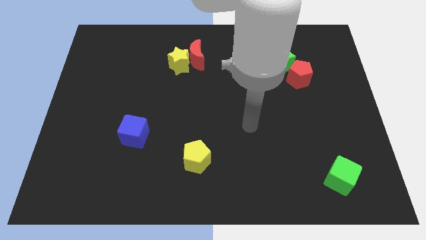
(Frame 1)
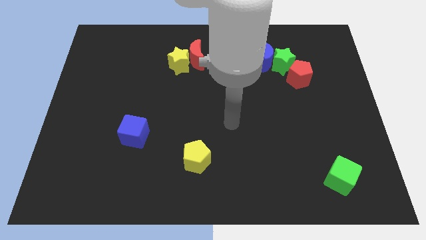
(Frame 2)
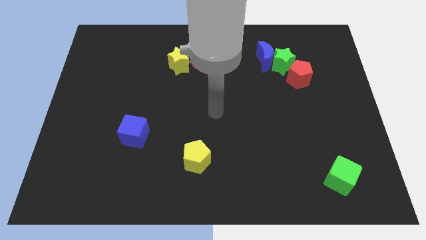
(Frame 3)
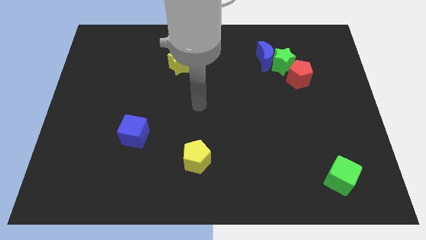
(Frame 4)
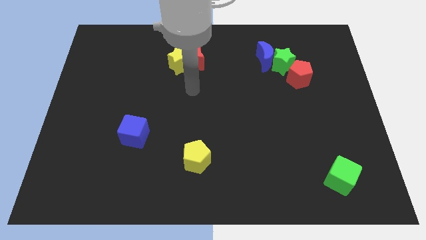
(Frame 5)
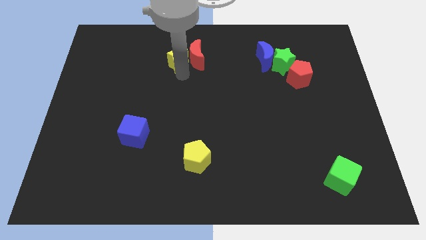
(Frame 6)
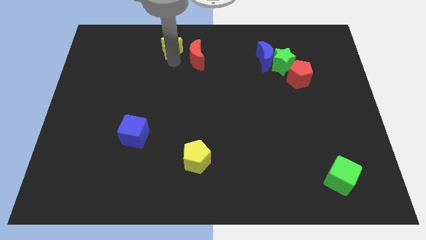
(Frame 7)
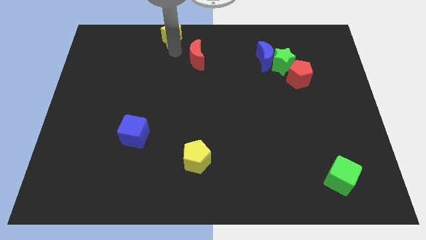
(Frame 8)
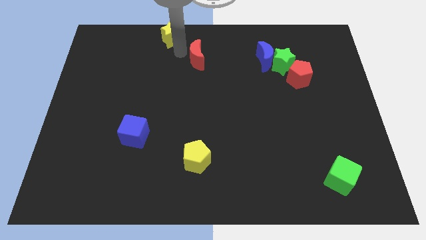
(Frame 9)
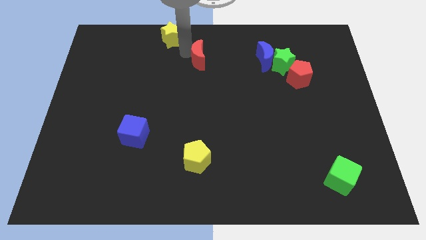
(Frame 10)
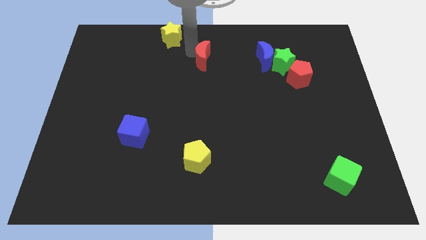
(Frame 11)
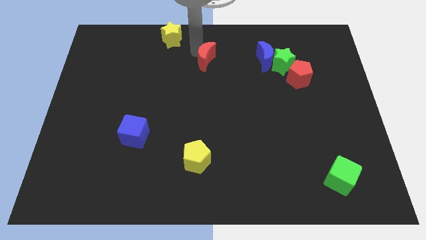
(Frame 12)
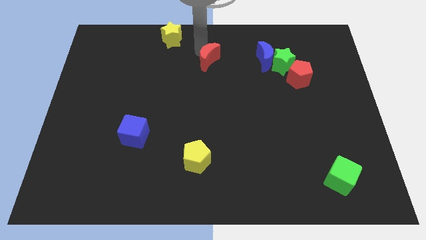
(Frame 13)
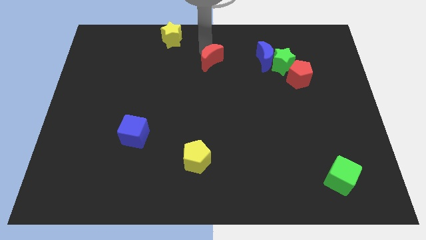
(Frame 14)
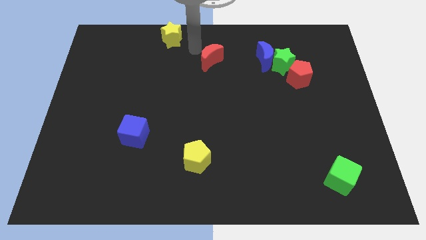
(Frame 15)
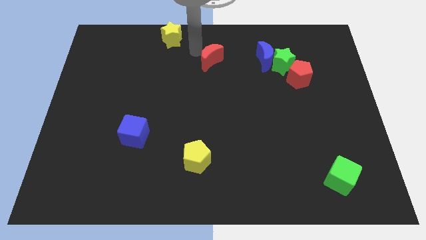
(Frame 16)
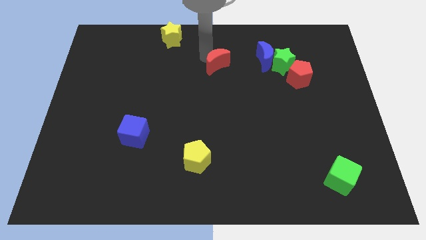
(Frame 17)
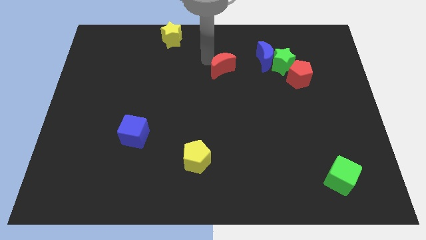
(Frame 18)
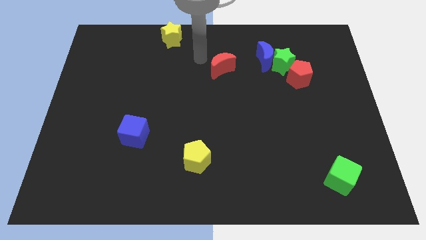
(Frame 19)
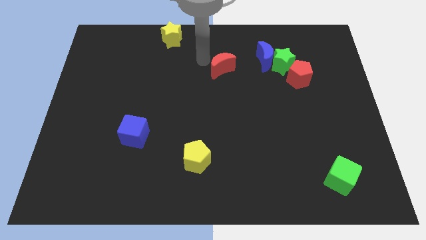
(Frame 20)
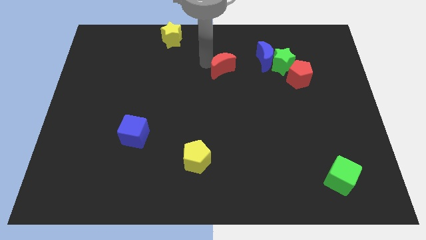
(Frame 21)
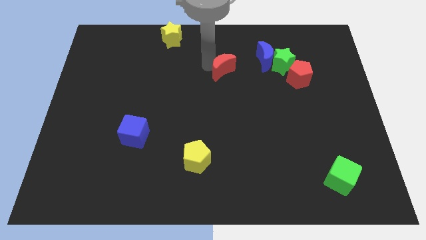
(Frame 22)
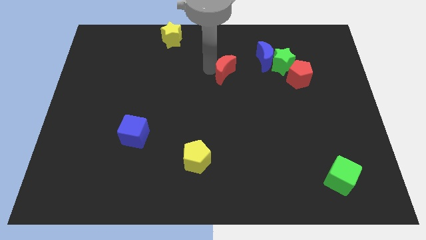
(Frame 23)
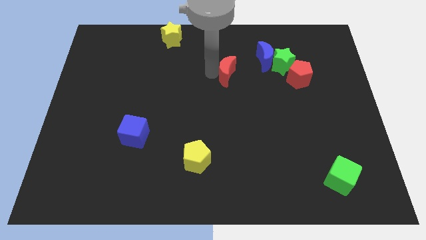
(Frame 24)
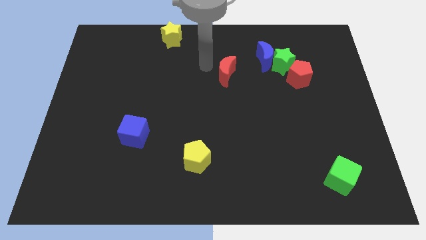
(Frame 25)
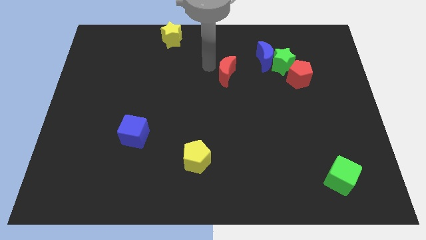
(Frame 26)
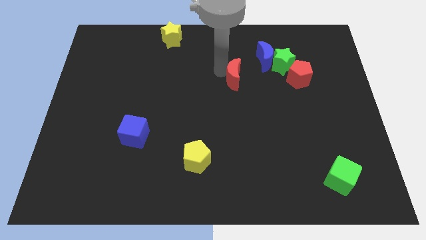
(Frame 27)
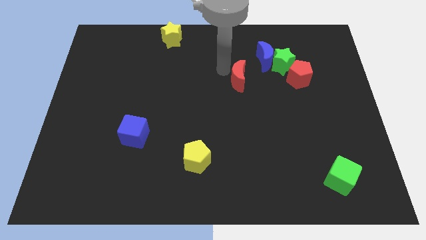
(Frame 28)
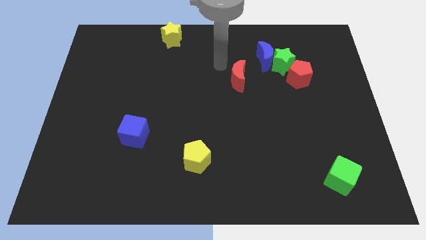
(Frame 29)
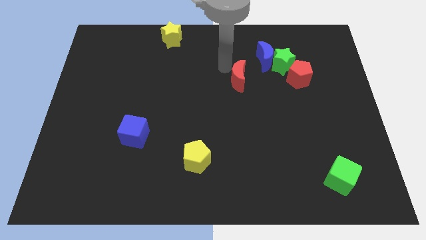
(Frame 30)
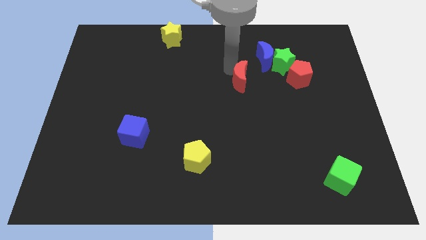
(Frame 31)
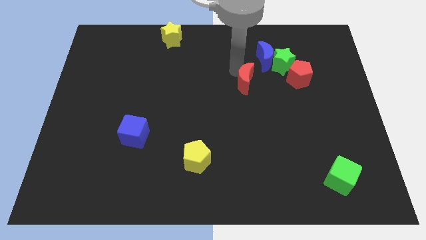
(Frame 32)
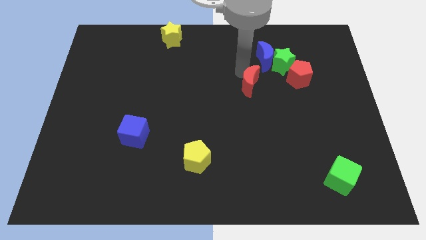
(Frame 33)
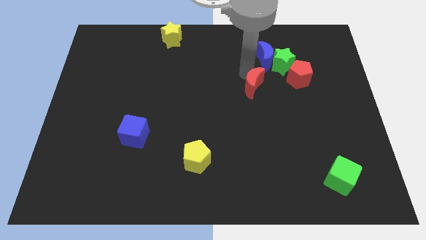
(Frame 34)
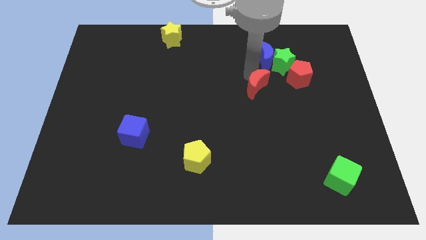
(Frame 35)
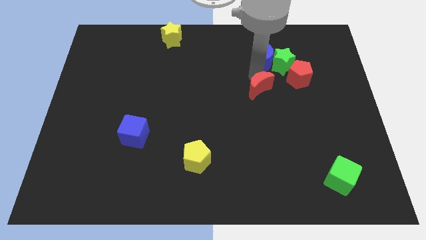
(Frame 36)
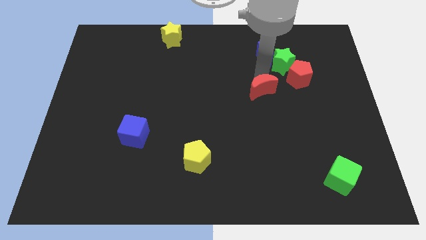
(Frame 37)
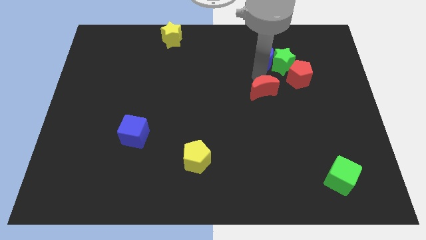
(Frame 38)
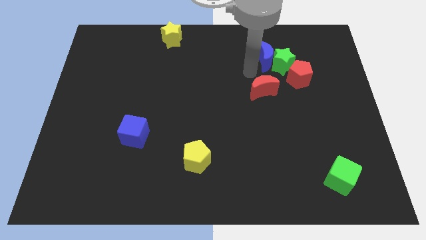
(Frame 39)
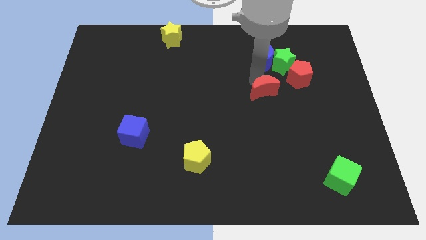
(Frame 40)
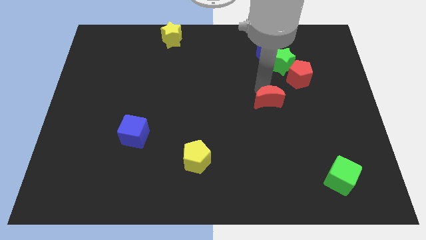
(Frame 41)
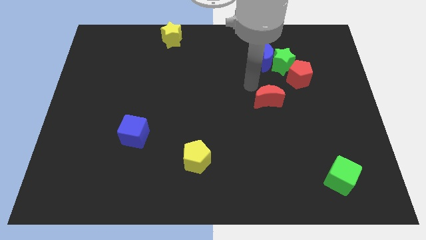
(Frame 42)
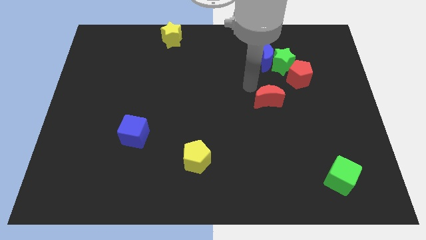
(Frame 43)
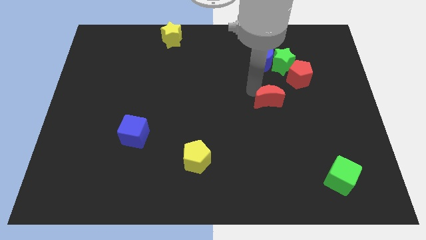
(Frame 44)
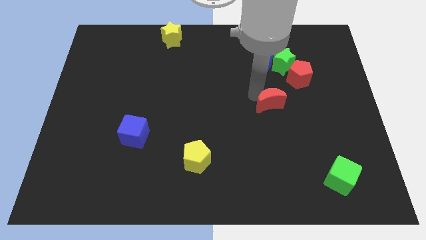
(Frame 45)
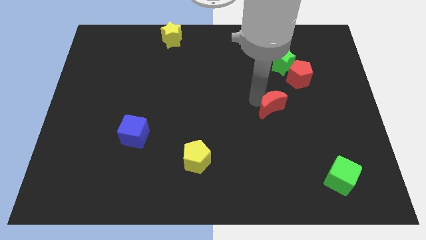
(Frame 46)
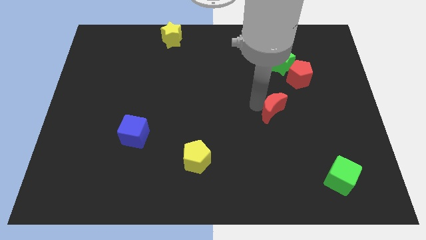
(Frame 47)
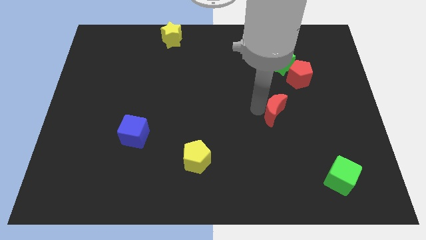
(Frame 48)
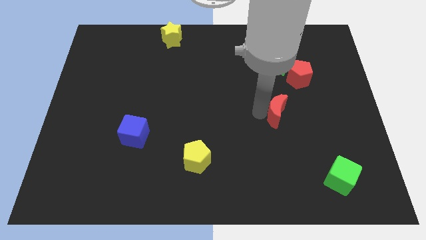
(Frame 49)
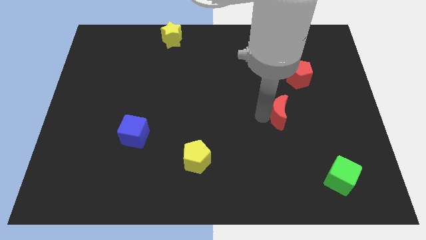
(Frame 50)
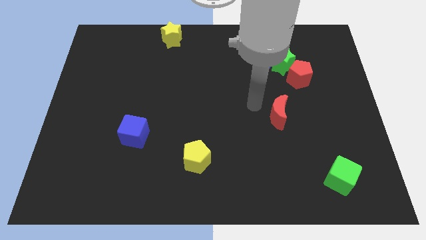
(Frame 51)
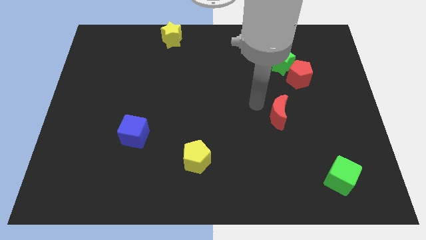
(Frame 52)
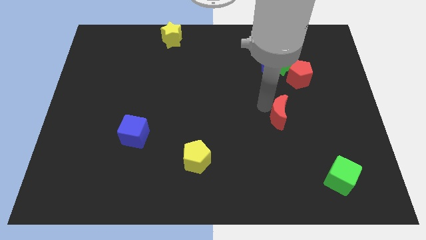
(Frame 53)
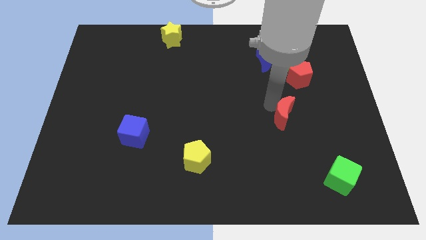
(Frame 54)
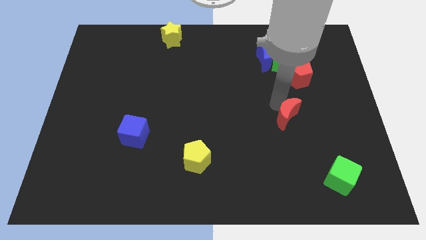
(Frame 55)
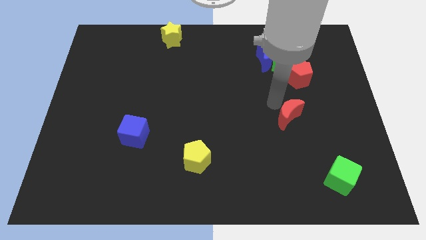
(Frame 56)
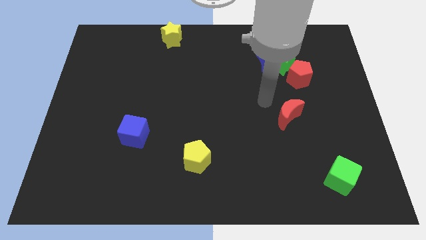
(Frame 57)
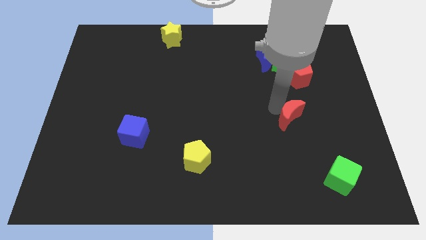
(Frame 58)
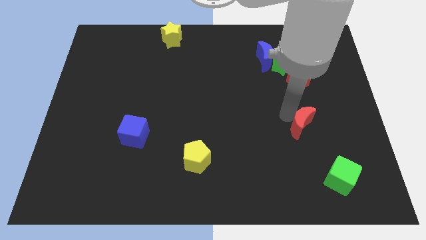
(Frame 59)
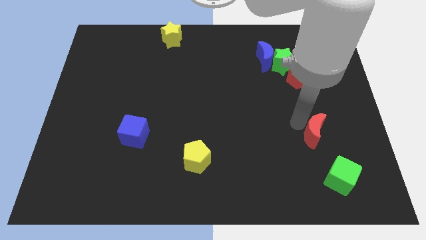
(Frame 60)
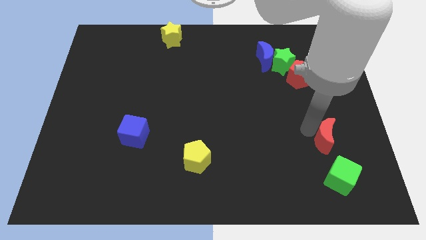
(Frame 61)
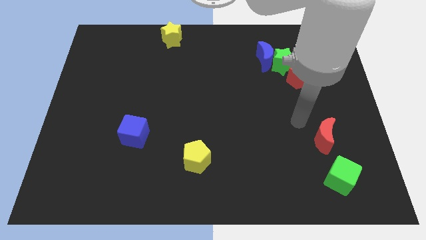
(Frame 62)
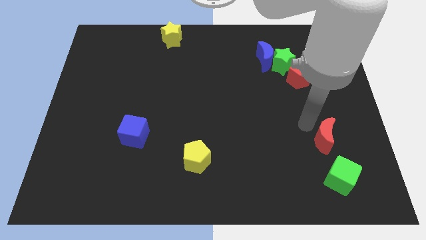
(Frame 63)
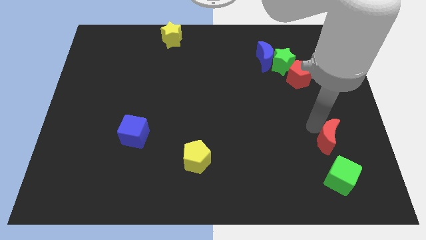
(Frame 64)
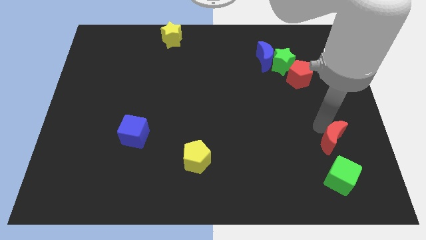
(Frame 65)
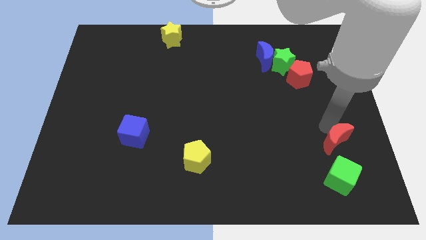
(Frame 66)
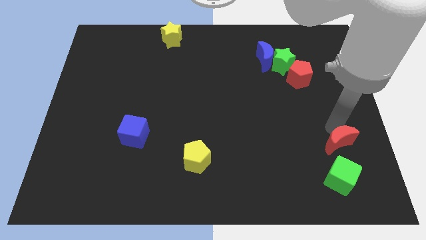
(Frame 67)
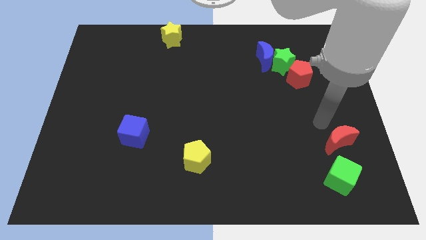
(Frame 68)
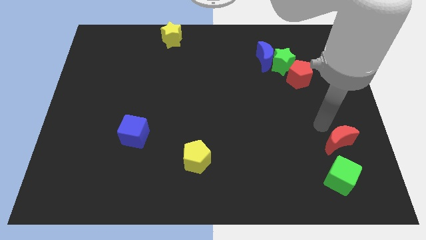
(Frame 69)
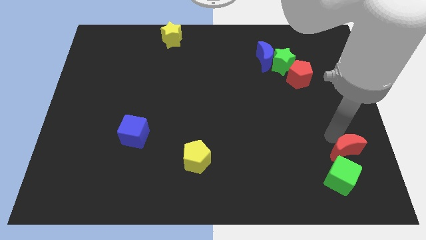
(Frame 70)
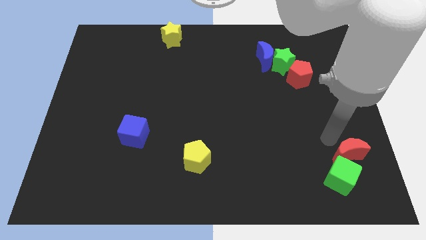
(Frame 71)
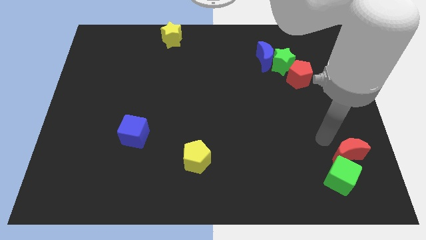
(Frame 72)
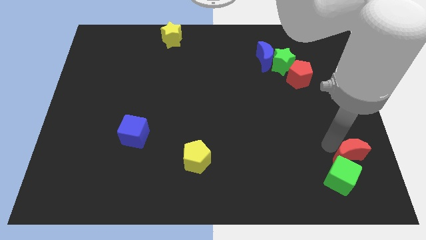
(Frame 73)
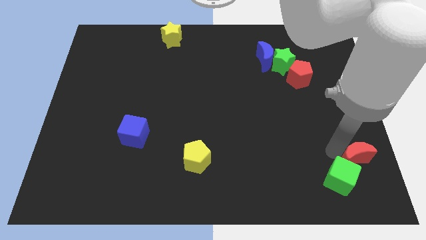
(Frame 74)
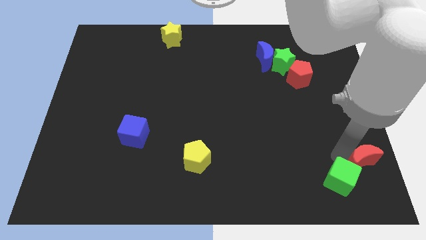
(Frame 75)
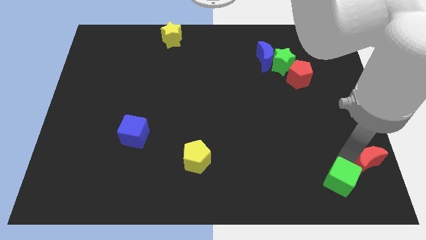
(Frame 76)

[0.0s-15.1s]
put the red moon to the bottom right of the board
